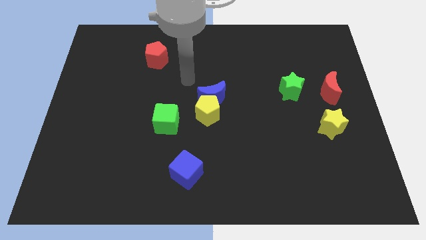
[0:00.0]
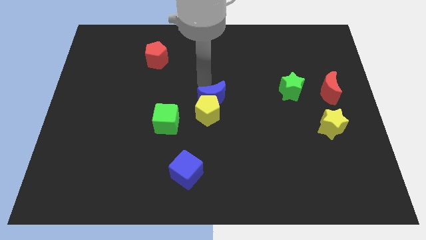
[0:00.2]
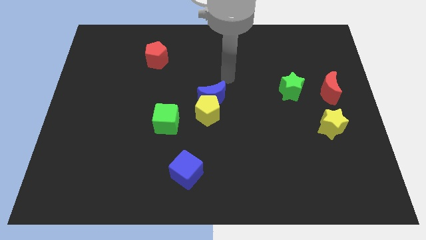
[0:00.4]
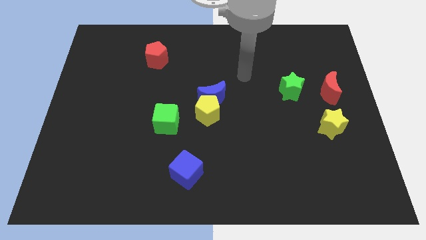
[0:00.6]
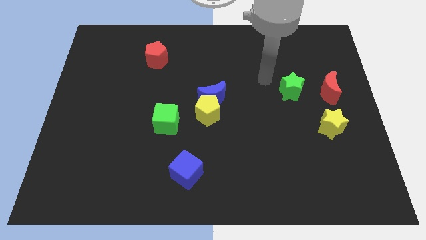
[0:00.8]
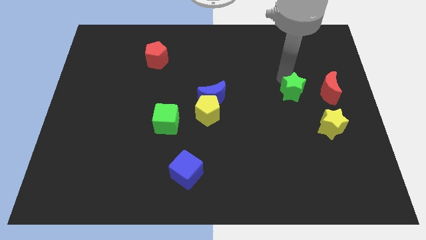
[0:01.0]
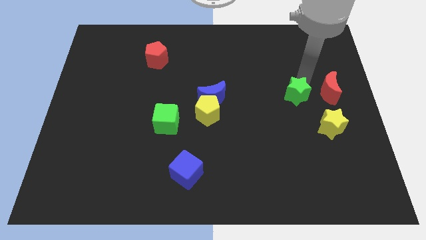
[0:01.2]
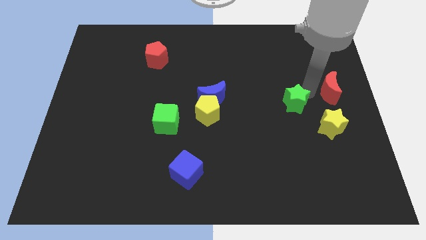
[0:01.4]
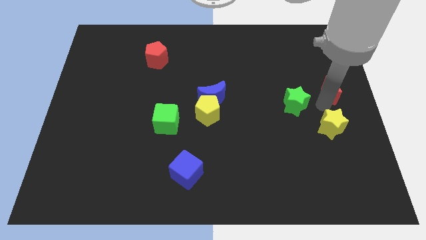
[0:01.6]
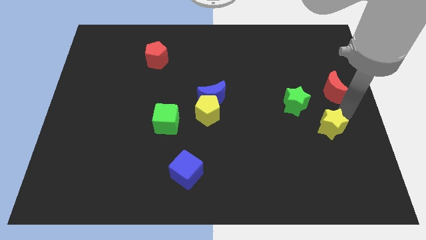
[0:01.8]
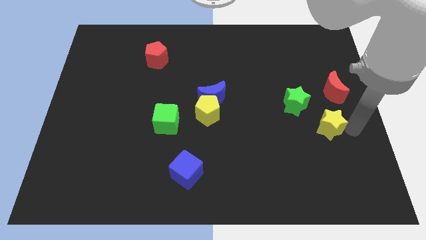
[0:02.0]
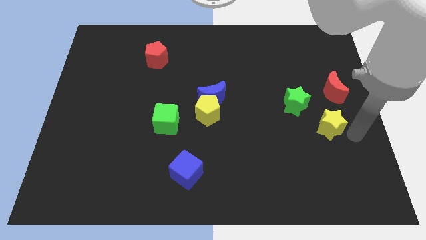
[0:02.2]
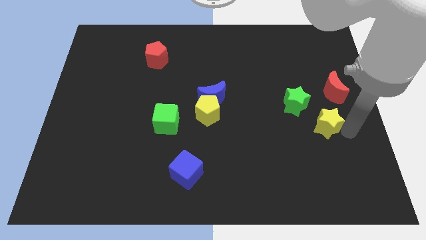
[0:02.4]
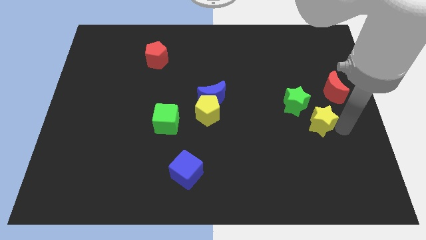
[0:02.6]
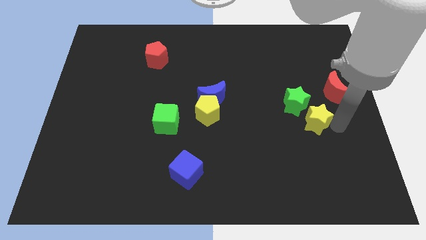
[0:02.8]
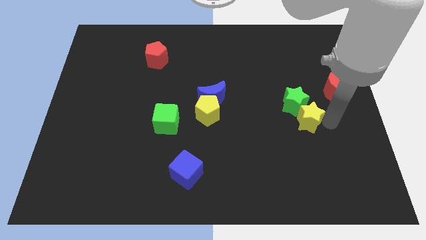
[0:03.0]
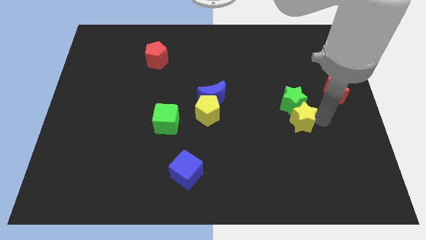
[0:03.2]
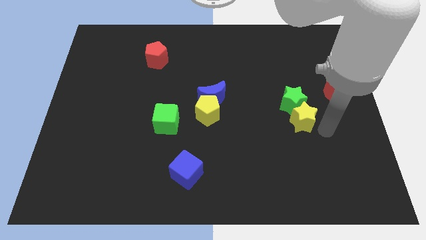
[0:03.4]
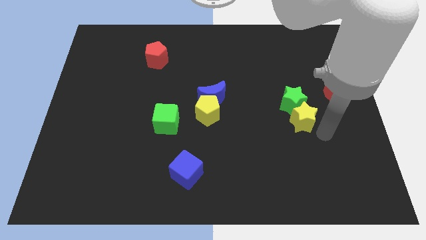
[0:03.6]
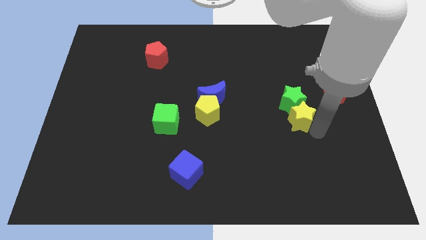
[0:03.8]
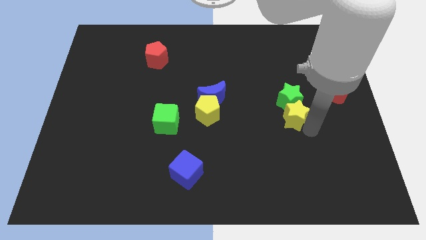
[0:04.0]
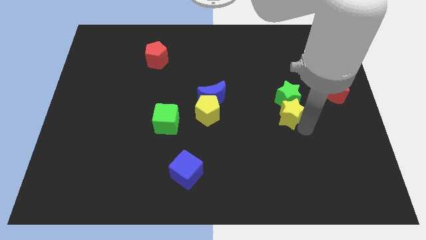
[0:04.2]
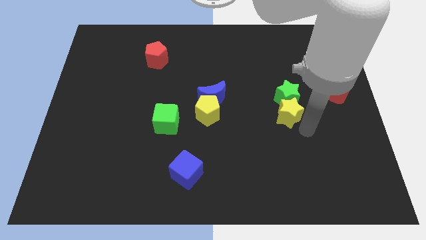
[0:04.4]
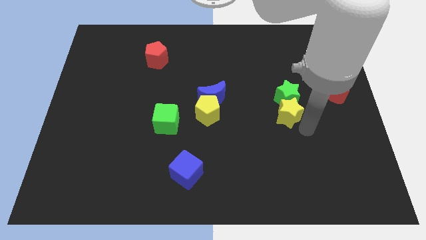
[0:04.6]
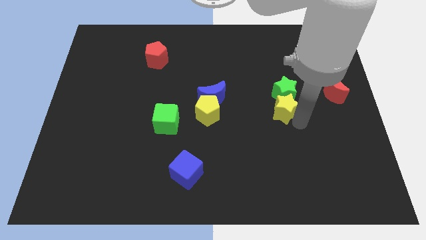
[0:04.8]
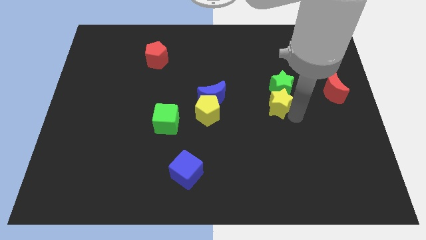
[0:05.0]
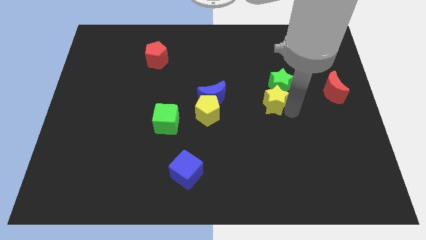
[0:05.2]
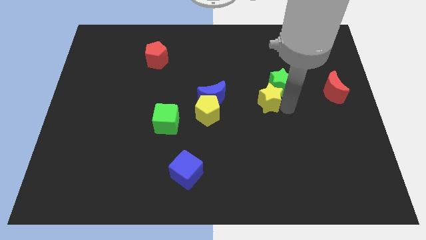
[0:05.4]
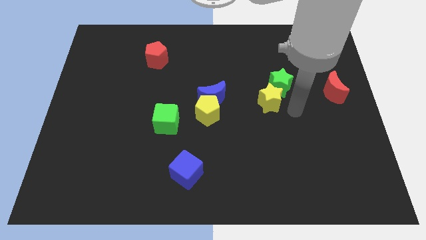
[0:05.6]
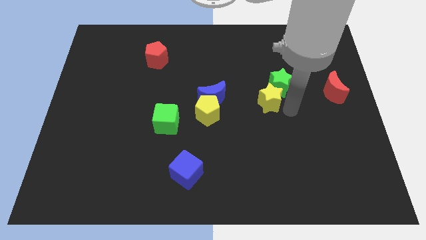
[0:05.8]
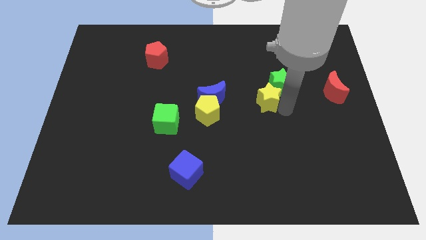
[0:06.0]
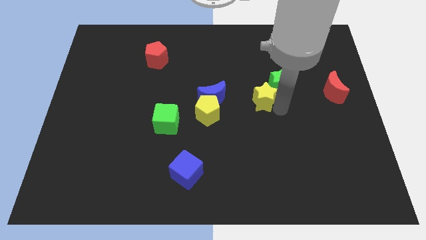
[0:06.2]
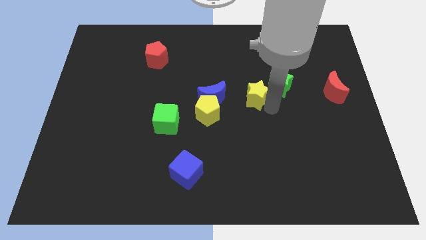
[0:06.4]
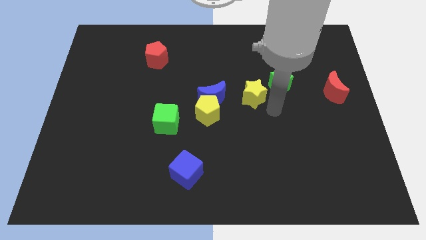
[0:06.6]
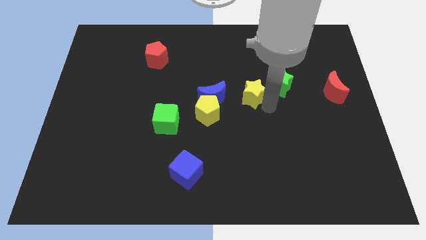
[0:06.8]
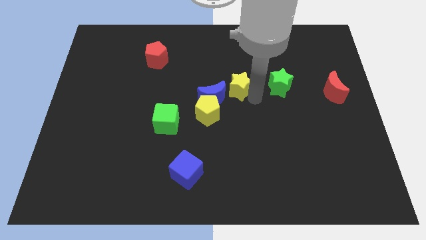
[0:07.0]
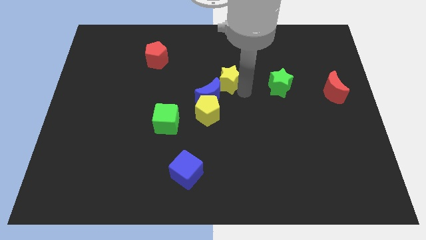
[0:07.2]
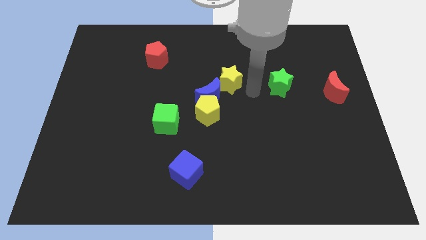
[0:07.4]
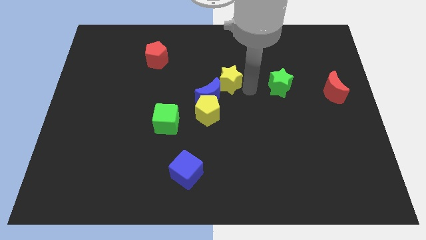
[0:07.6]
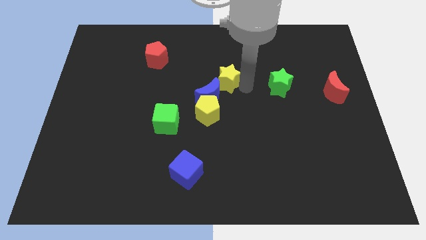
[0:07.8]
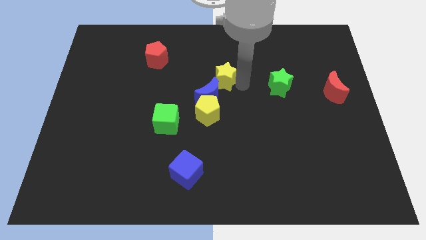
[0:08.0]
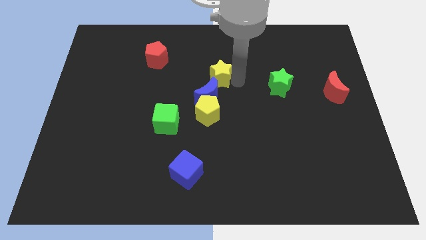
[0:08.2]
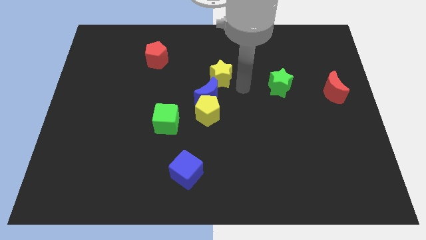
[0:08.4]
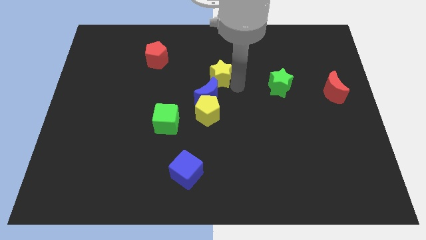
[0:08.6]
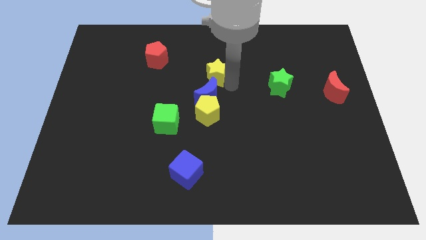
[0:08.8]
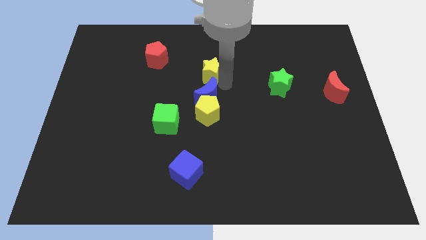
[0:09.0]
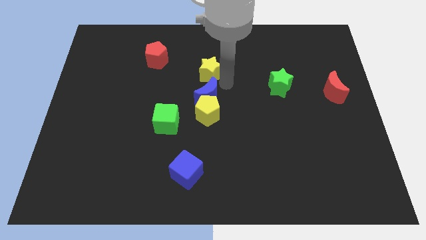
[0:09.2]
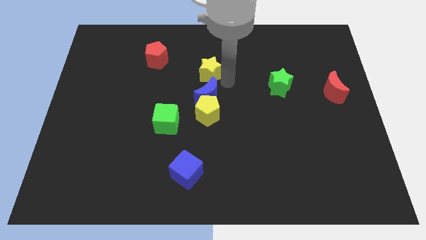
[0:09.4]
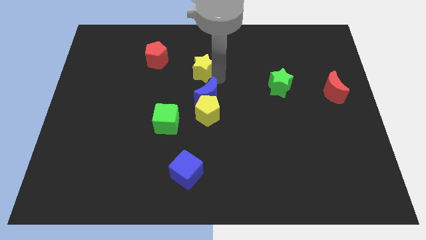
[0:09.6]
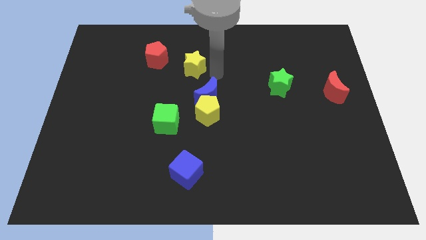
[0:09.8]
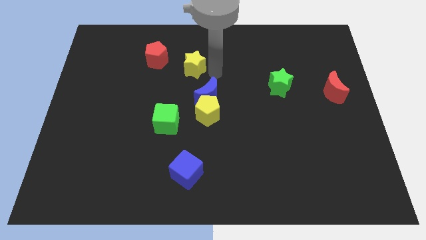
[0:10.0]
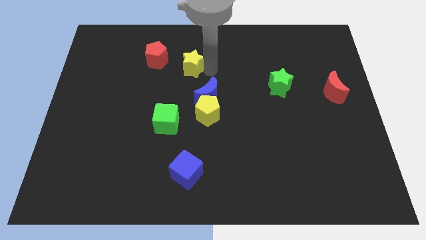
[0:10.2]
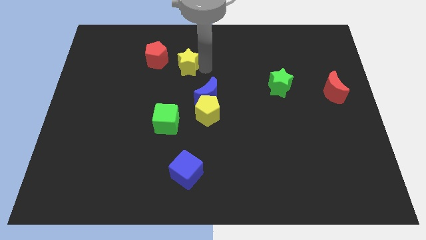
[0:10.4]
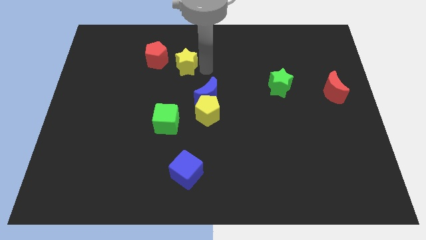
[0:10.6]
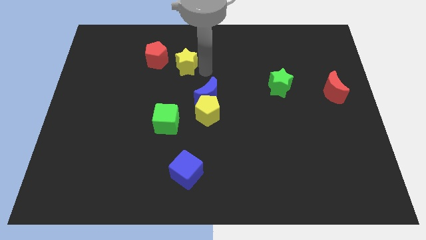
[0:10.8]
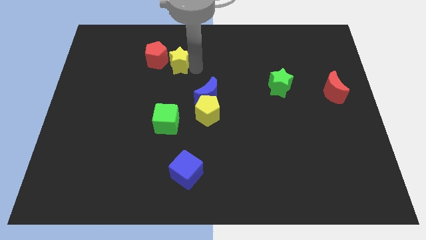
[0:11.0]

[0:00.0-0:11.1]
put the yellow star towards the red pentagon

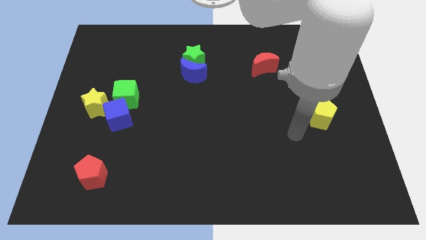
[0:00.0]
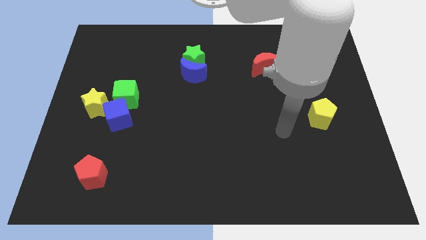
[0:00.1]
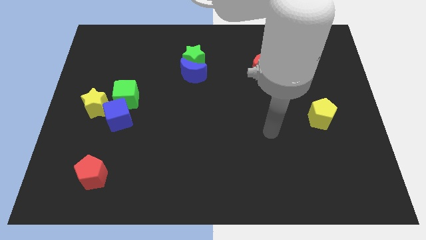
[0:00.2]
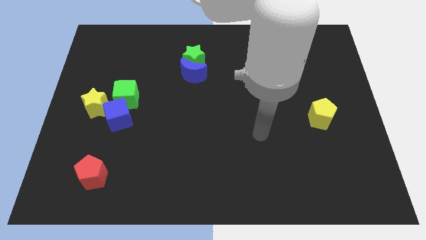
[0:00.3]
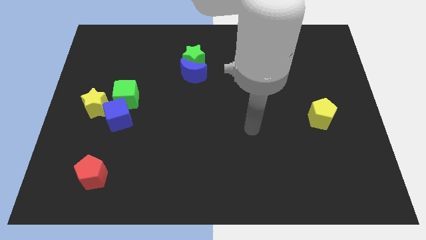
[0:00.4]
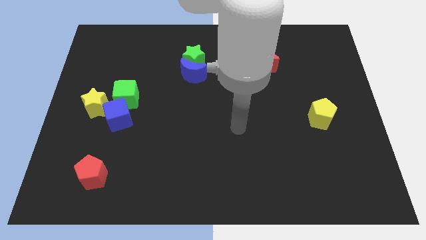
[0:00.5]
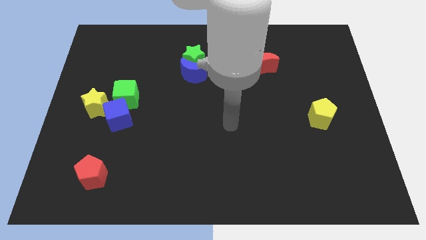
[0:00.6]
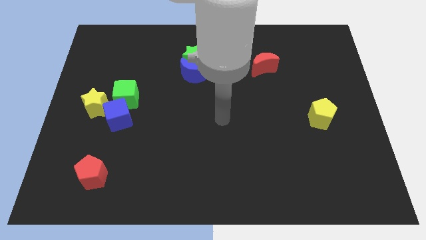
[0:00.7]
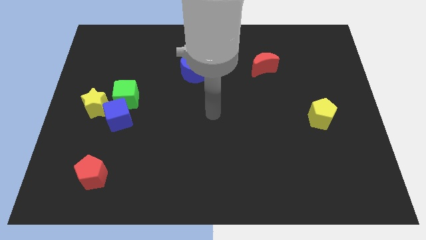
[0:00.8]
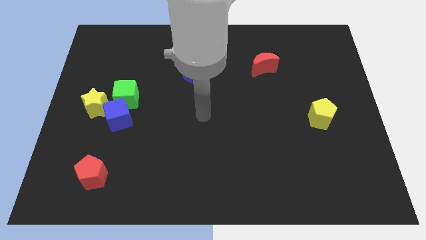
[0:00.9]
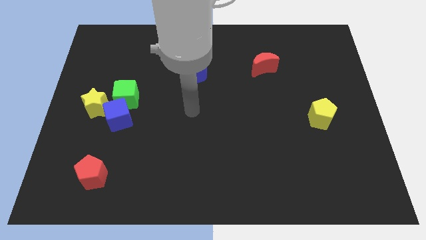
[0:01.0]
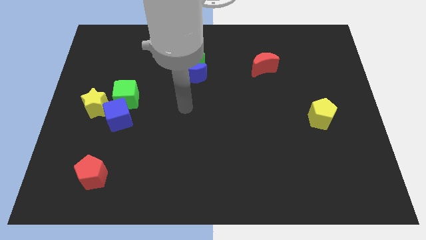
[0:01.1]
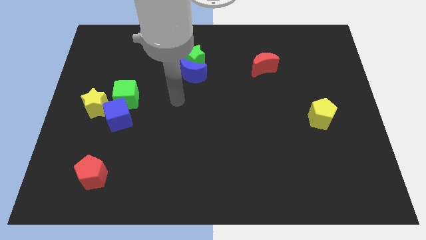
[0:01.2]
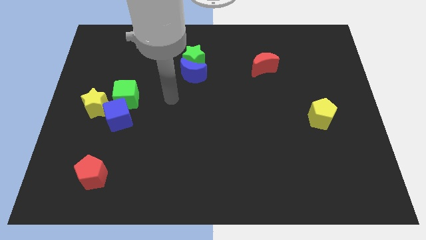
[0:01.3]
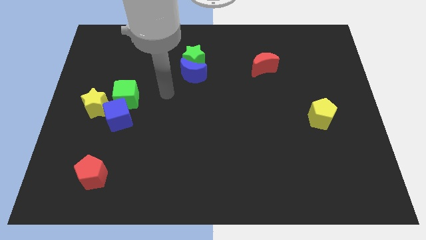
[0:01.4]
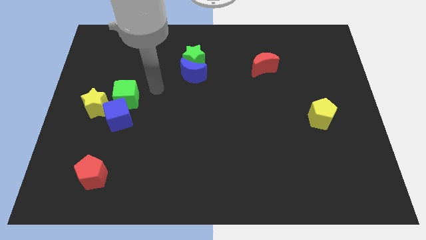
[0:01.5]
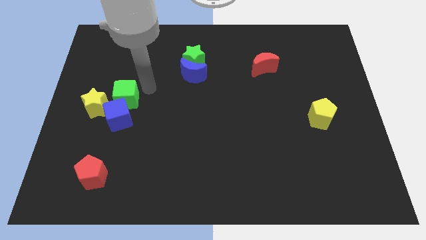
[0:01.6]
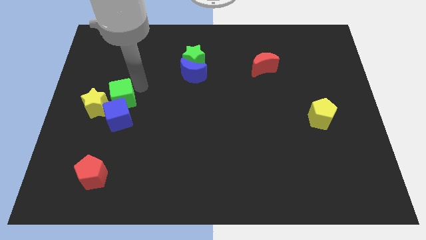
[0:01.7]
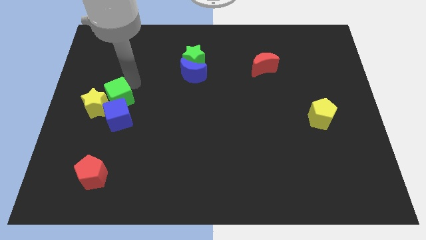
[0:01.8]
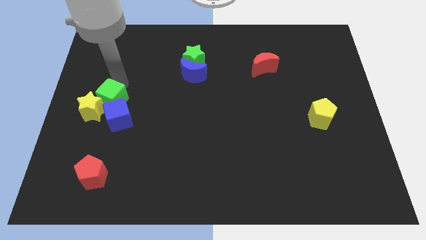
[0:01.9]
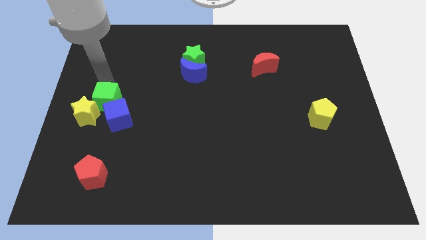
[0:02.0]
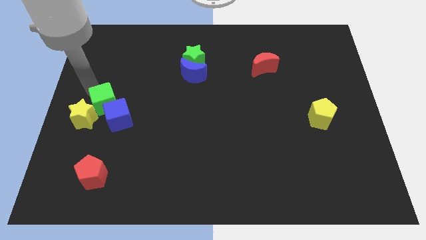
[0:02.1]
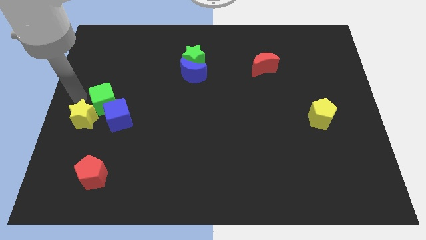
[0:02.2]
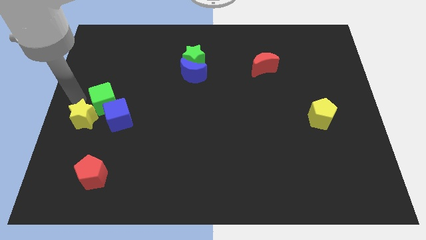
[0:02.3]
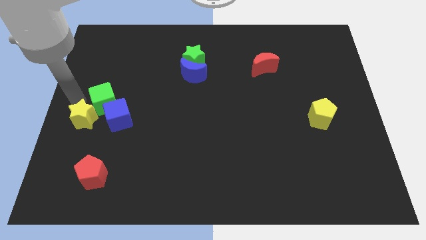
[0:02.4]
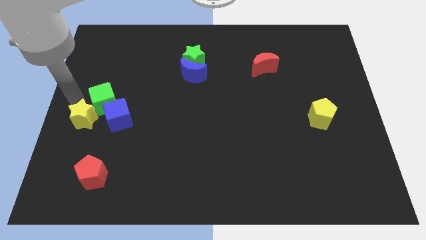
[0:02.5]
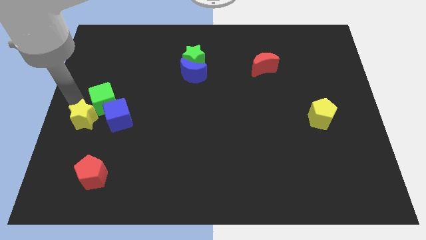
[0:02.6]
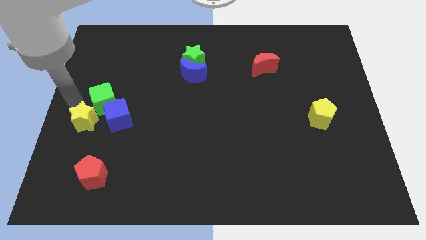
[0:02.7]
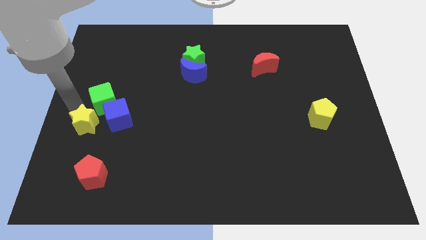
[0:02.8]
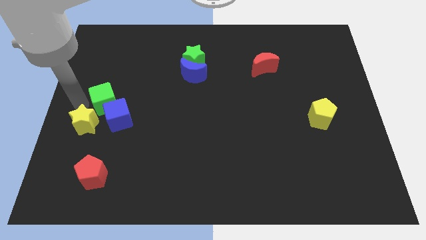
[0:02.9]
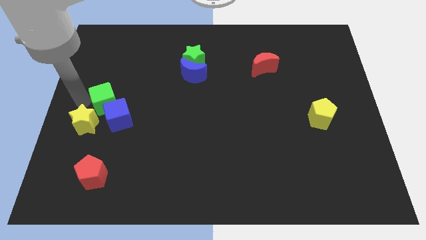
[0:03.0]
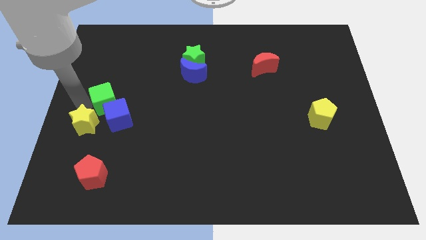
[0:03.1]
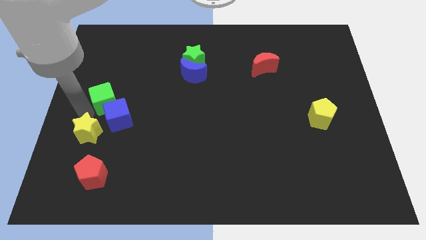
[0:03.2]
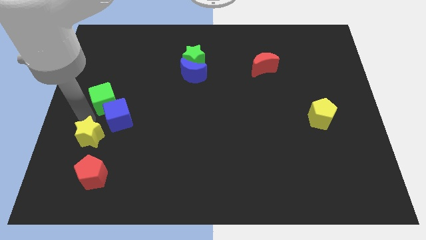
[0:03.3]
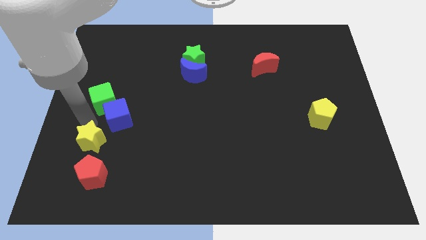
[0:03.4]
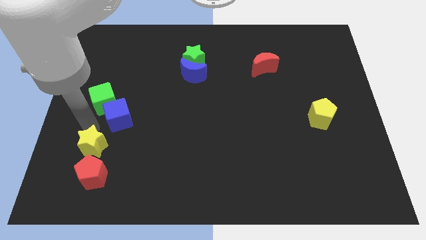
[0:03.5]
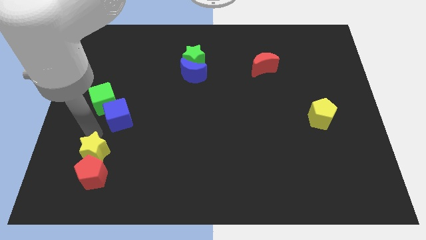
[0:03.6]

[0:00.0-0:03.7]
move the yellow star close to the red pentagon
